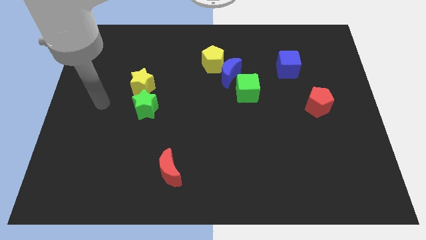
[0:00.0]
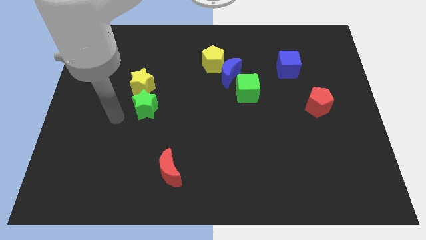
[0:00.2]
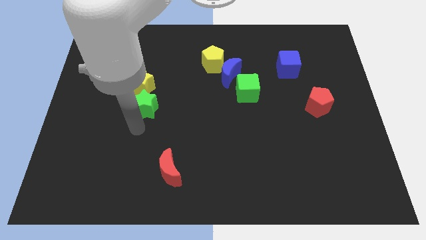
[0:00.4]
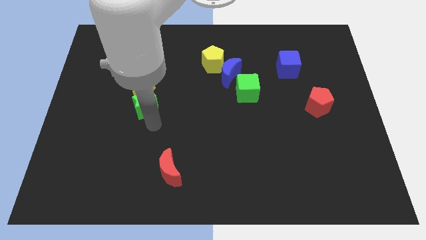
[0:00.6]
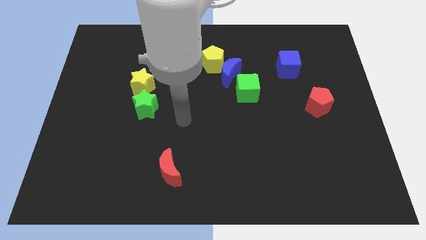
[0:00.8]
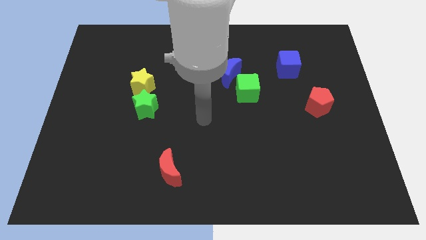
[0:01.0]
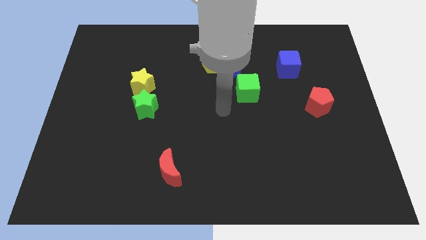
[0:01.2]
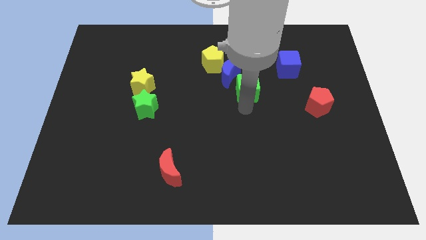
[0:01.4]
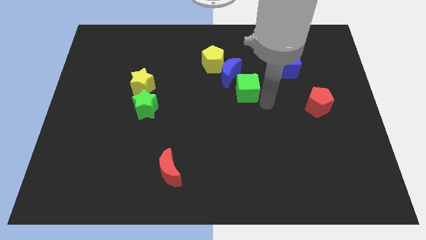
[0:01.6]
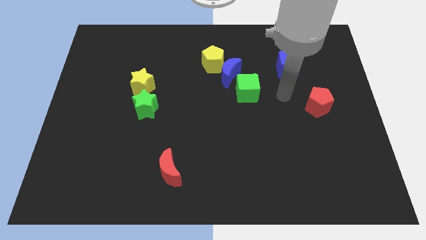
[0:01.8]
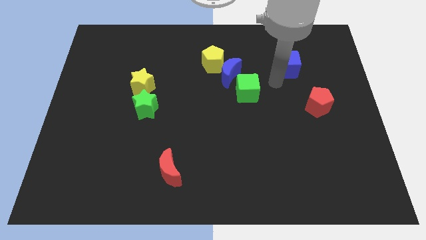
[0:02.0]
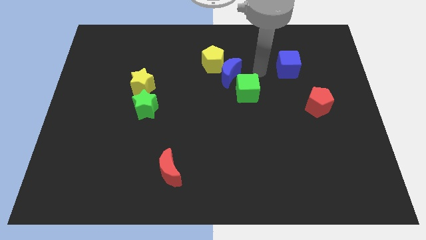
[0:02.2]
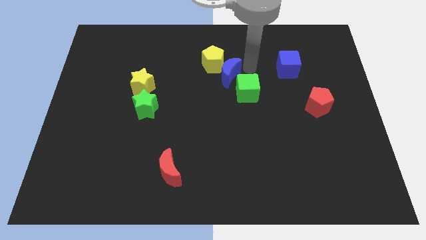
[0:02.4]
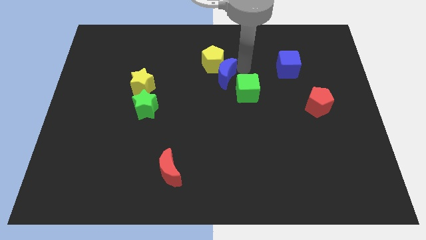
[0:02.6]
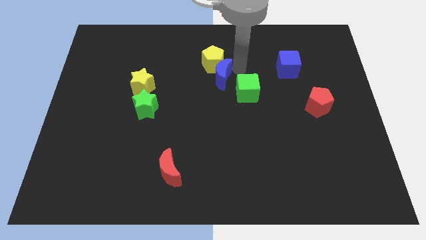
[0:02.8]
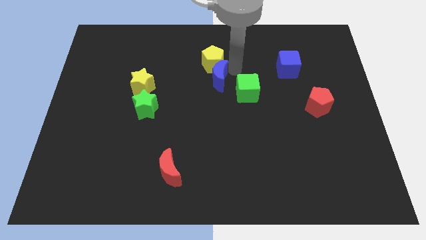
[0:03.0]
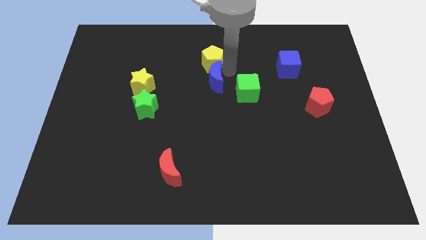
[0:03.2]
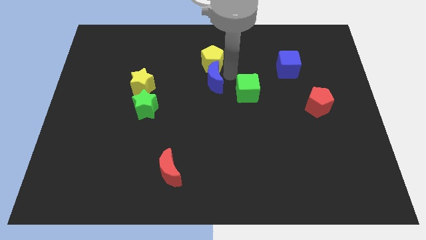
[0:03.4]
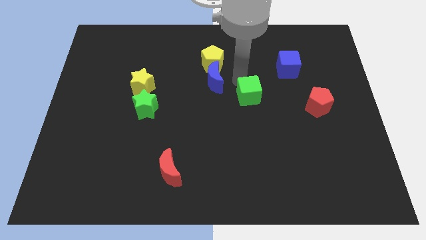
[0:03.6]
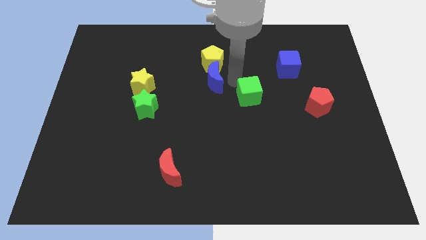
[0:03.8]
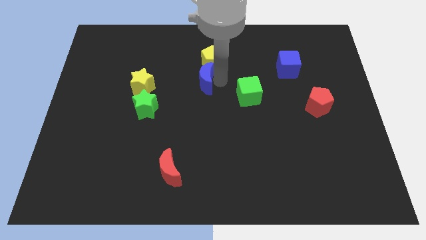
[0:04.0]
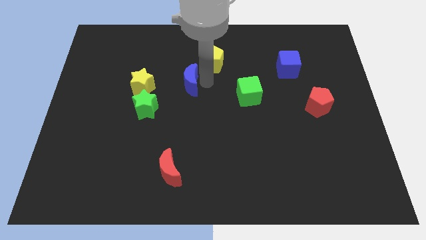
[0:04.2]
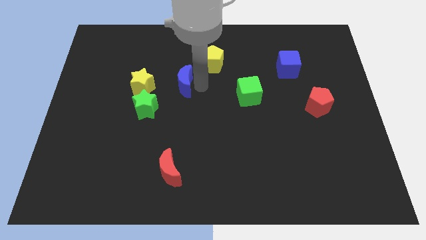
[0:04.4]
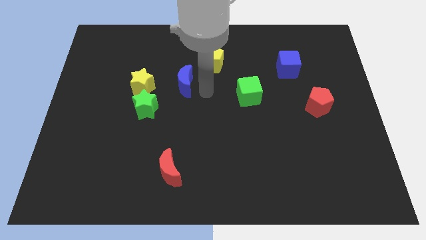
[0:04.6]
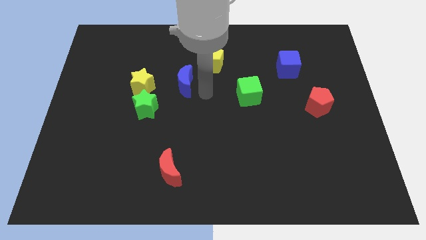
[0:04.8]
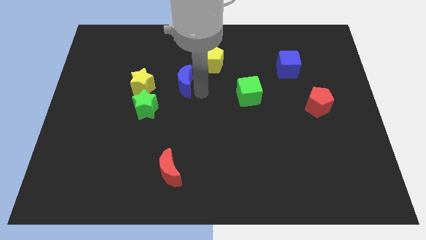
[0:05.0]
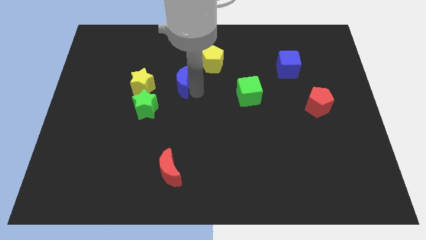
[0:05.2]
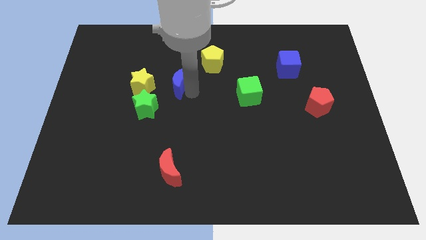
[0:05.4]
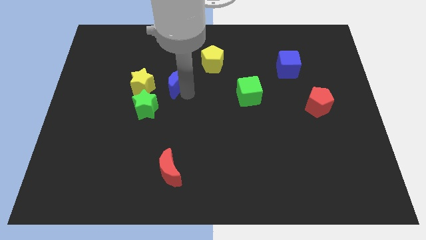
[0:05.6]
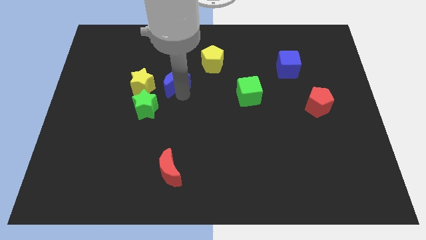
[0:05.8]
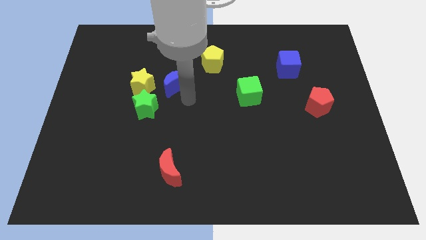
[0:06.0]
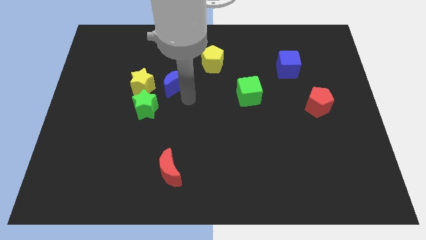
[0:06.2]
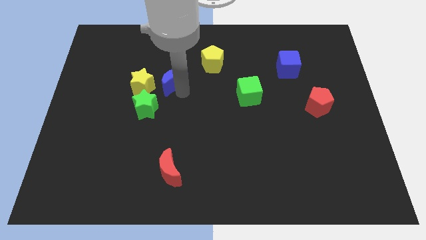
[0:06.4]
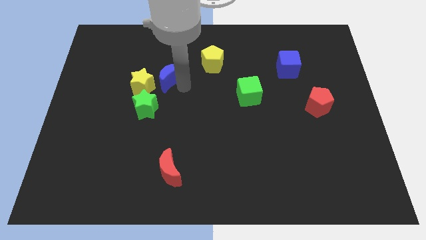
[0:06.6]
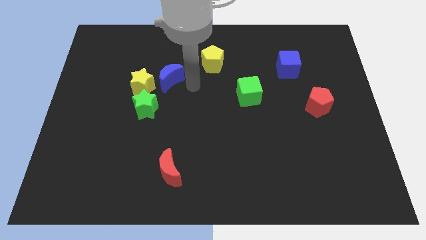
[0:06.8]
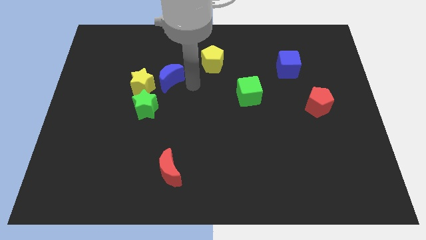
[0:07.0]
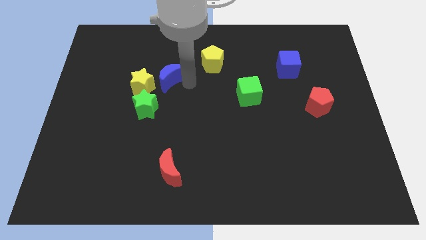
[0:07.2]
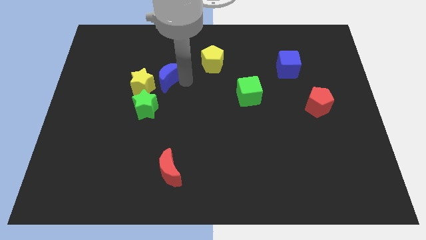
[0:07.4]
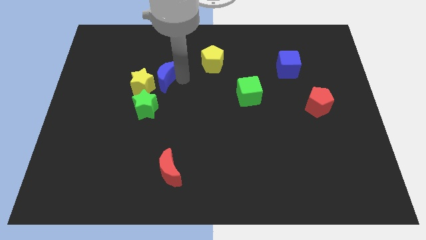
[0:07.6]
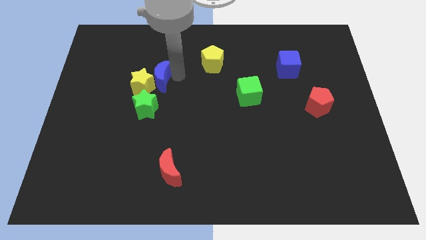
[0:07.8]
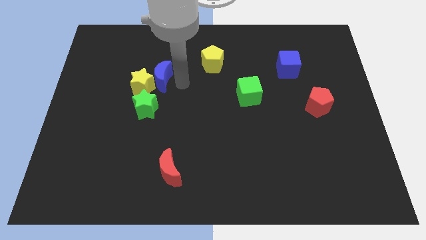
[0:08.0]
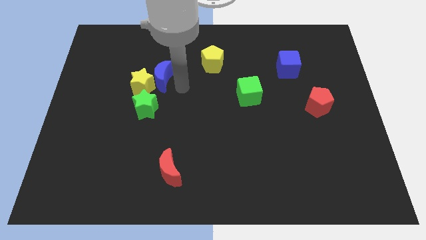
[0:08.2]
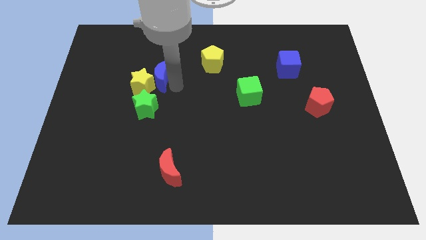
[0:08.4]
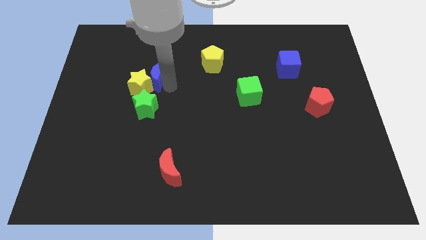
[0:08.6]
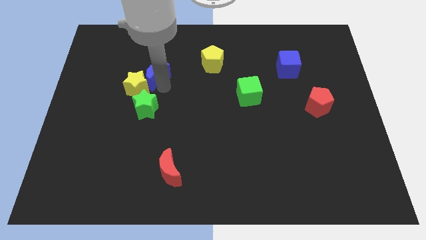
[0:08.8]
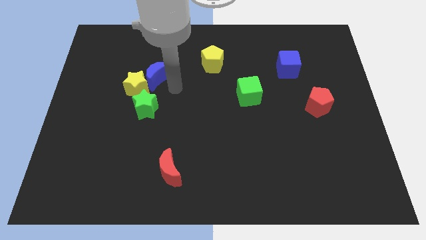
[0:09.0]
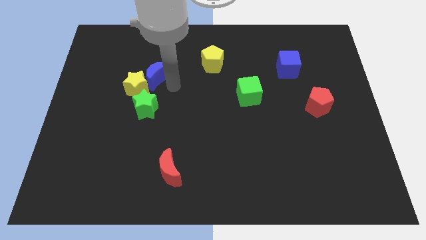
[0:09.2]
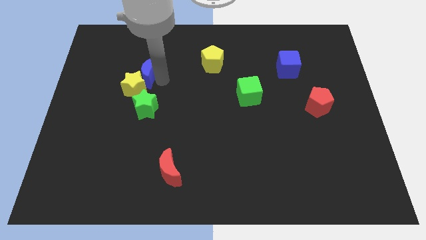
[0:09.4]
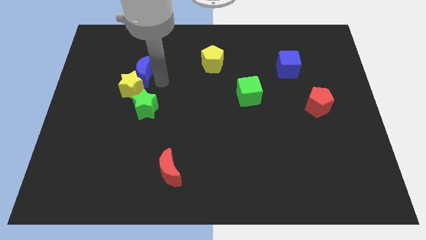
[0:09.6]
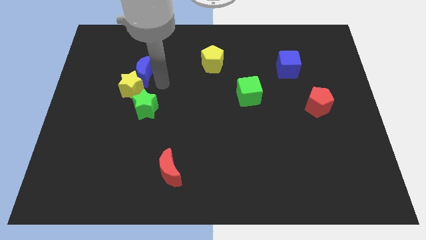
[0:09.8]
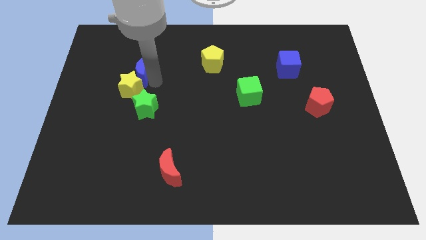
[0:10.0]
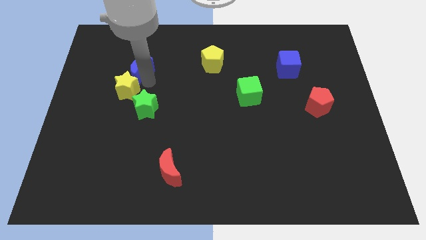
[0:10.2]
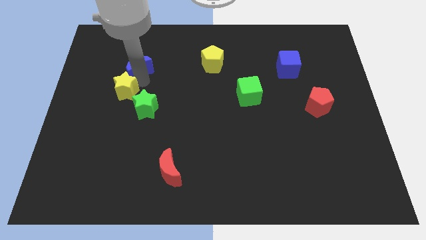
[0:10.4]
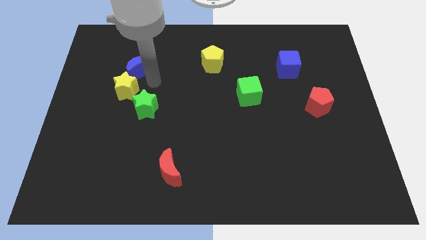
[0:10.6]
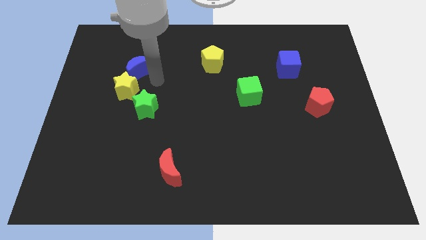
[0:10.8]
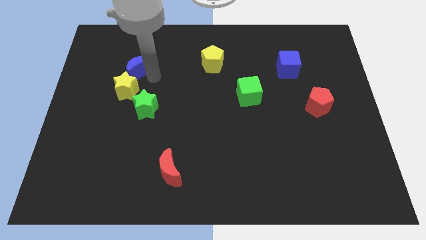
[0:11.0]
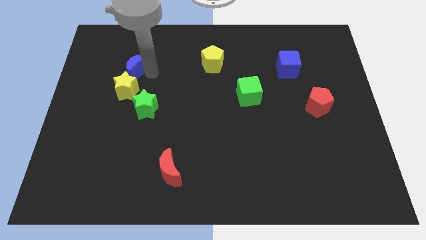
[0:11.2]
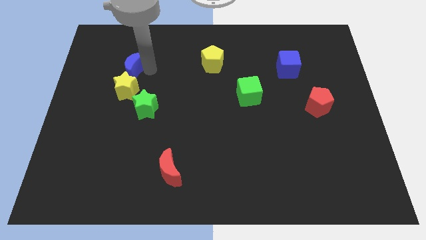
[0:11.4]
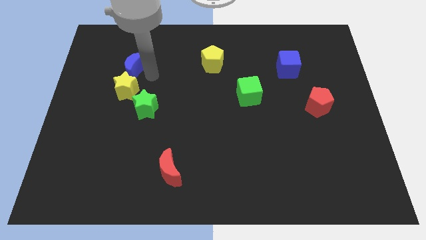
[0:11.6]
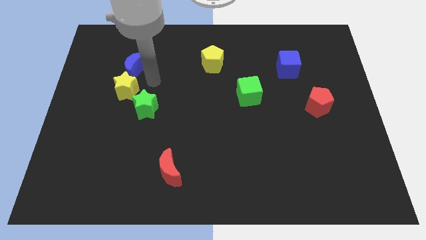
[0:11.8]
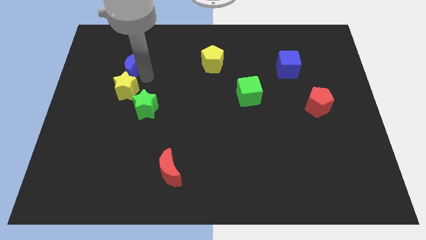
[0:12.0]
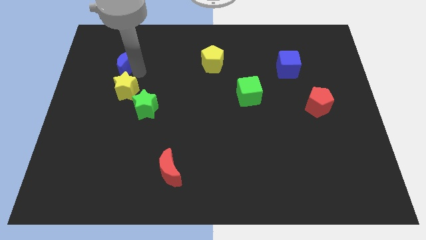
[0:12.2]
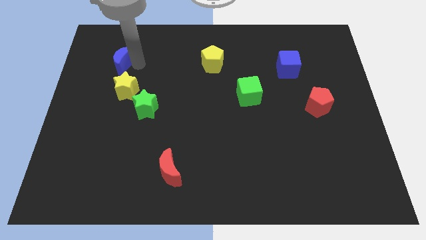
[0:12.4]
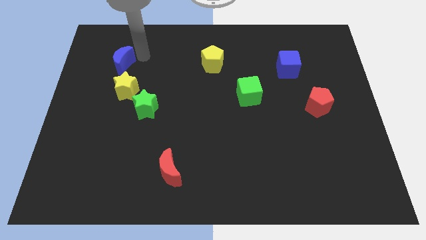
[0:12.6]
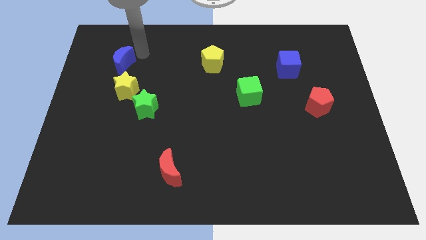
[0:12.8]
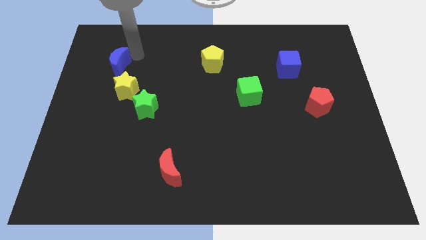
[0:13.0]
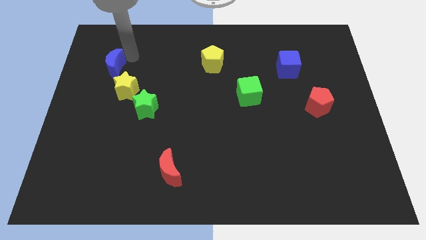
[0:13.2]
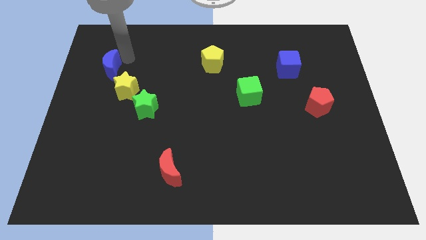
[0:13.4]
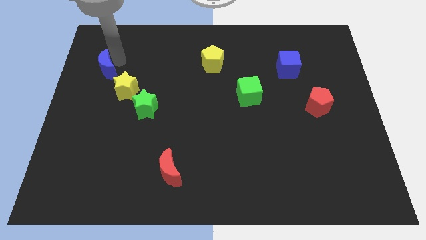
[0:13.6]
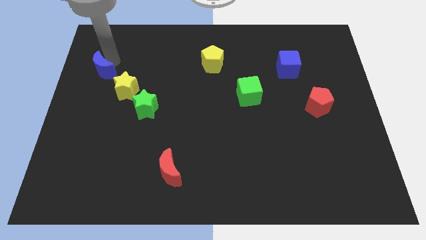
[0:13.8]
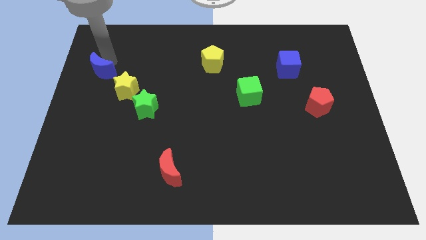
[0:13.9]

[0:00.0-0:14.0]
move the blue moon to the left side of the board
